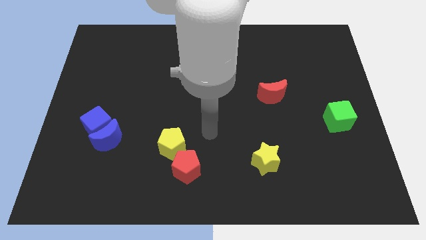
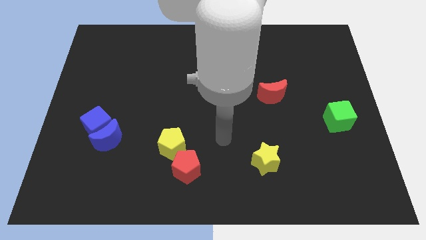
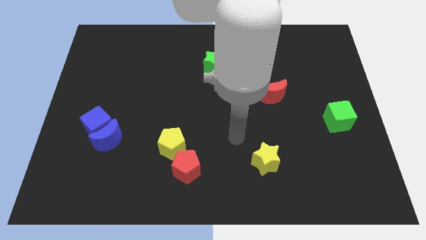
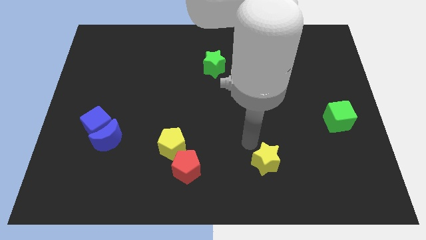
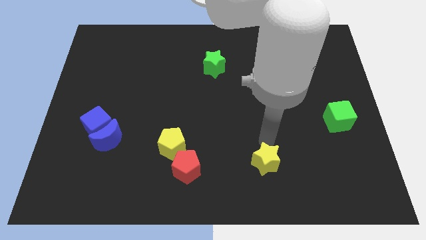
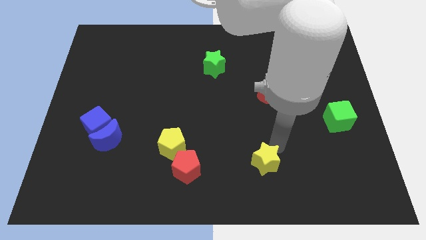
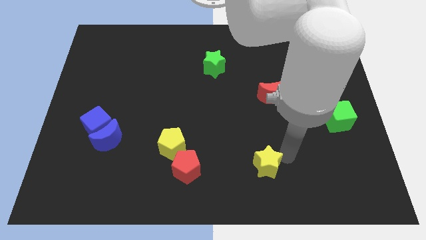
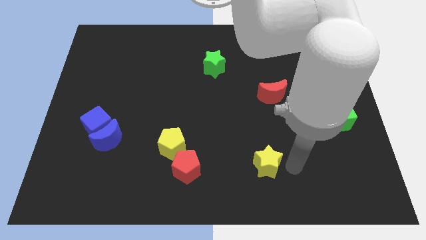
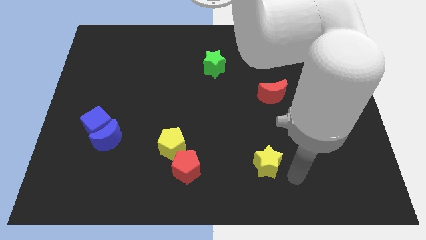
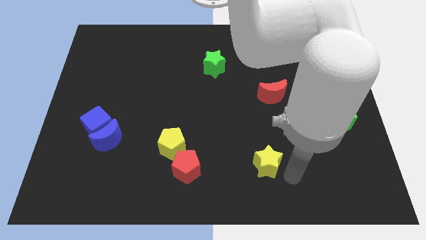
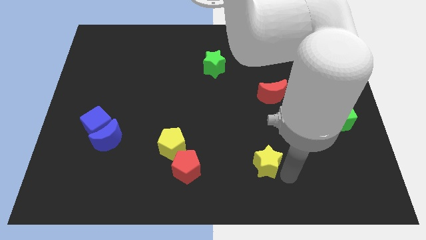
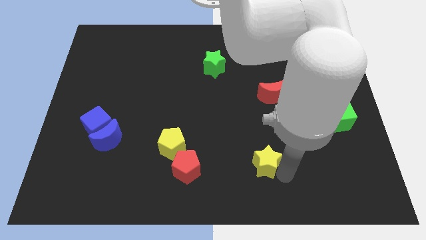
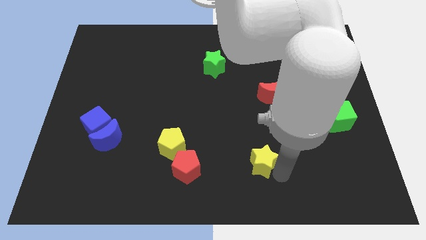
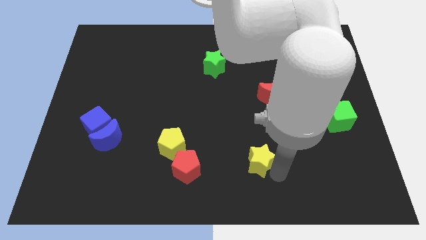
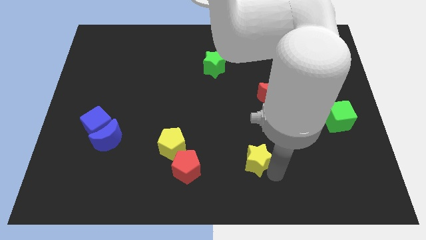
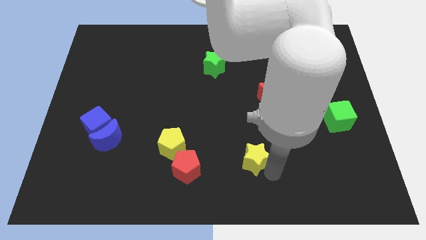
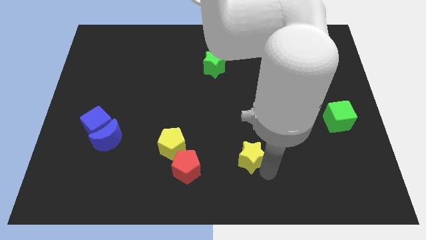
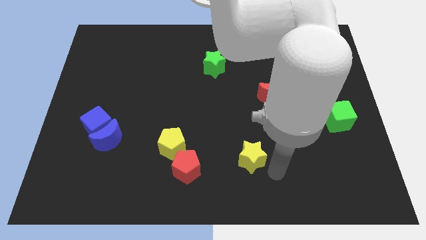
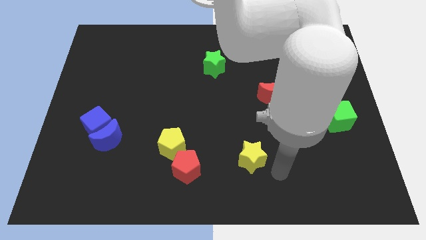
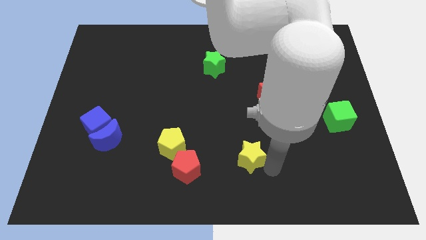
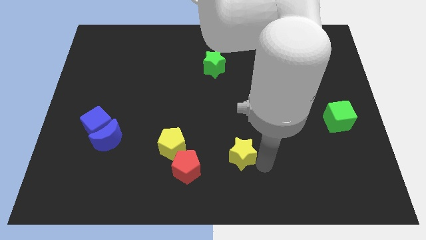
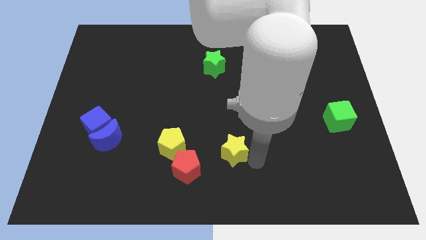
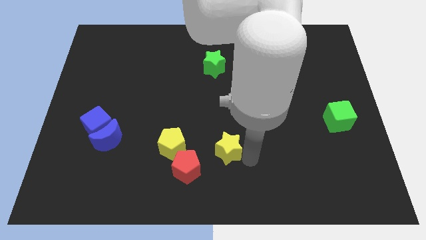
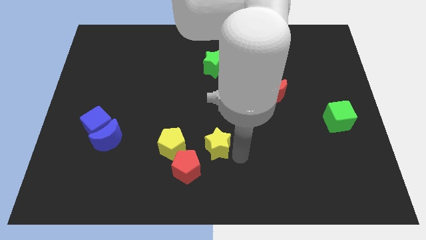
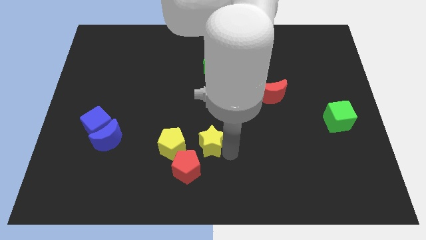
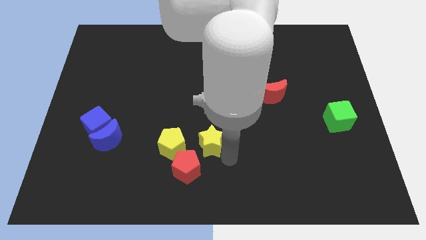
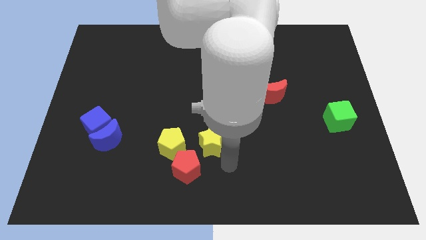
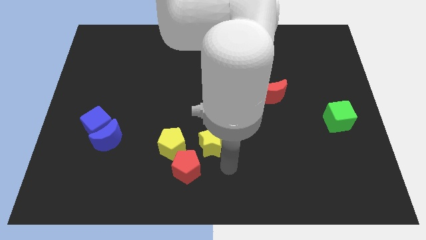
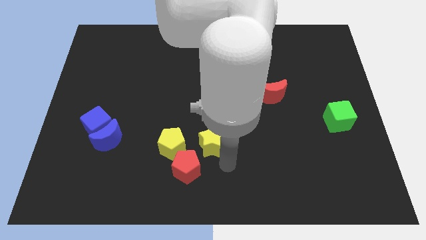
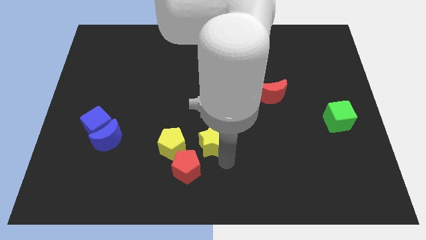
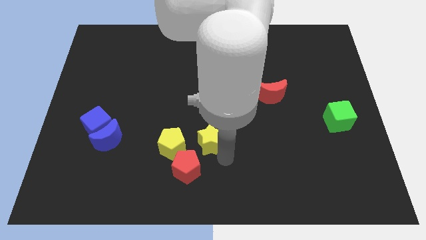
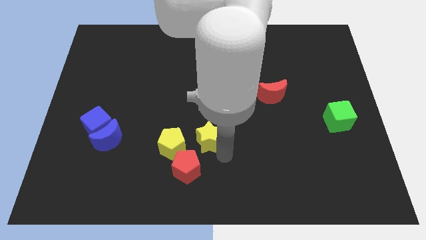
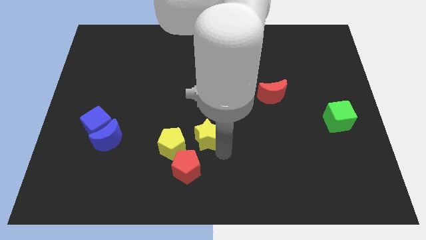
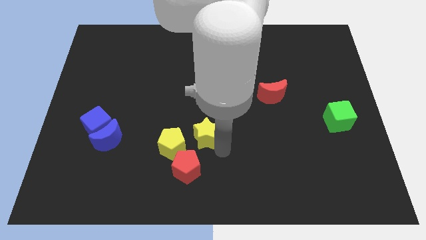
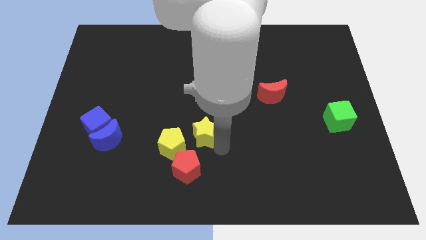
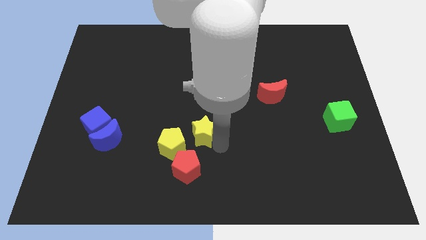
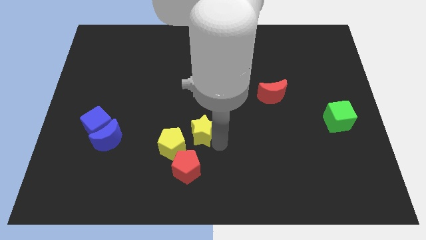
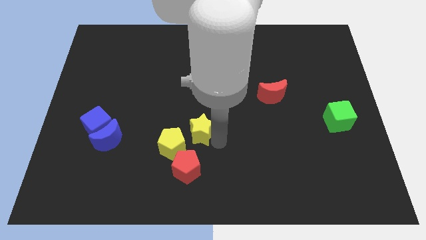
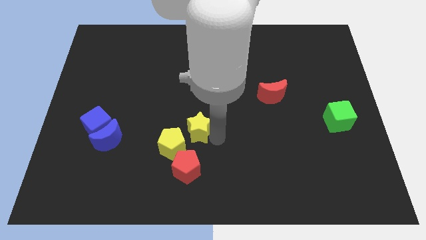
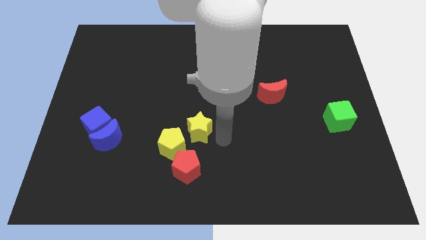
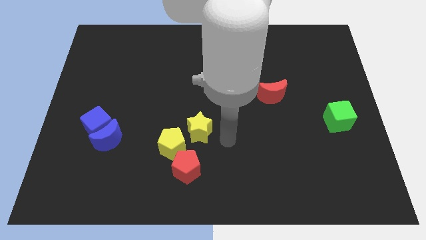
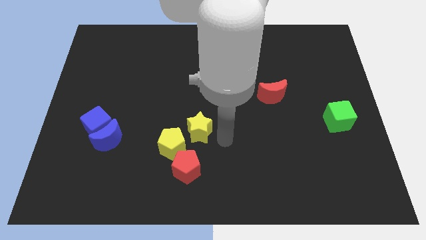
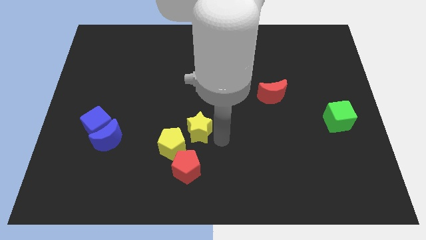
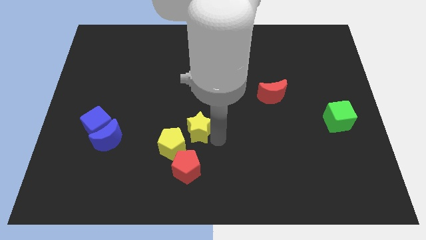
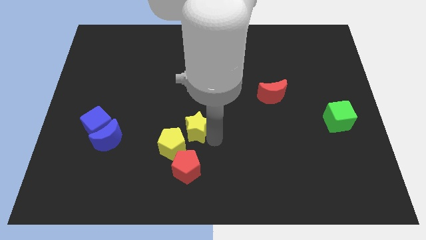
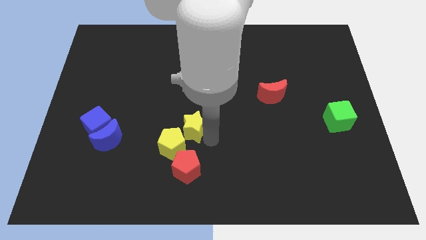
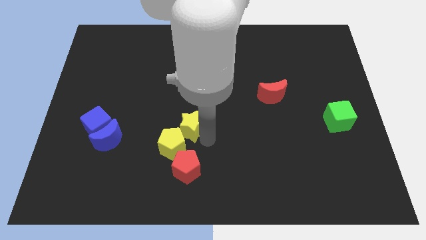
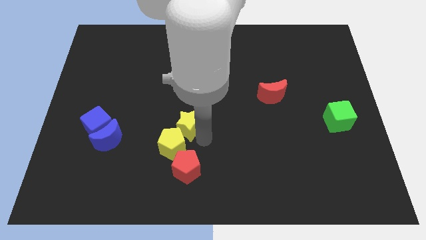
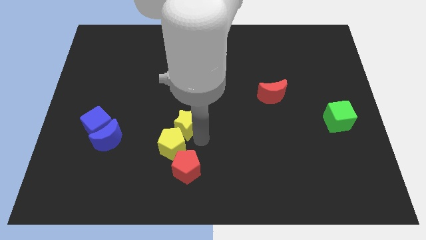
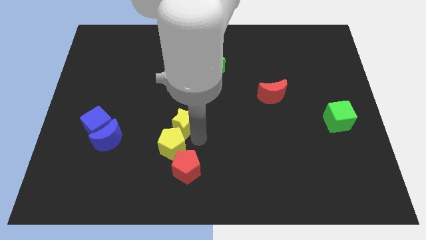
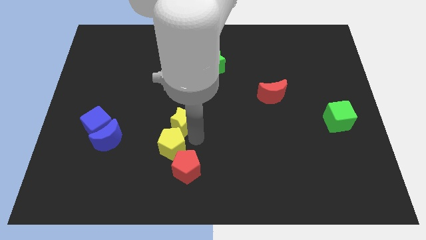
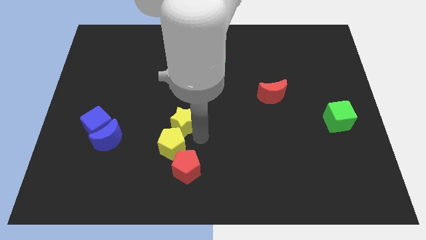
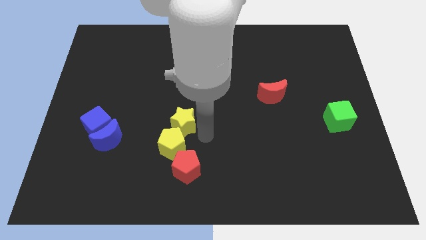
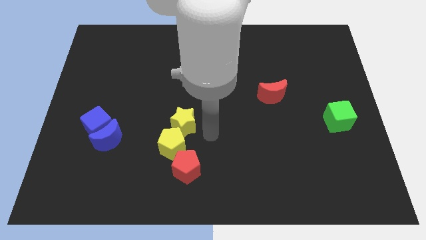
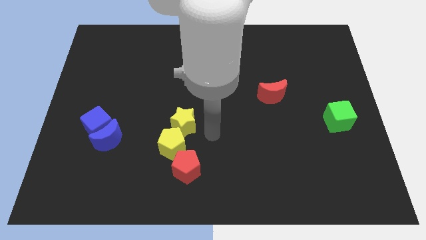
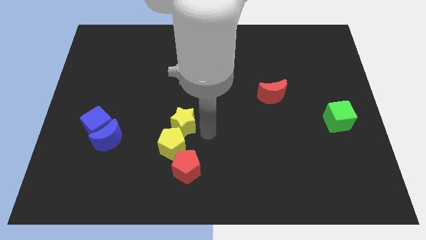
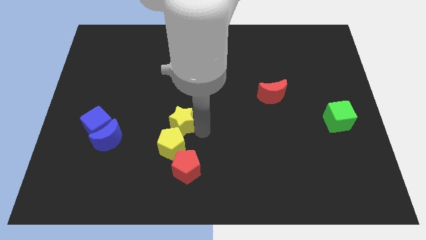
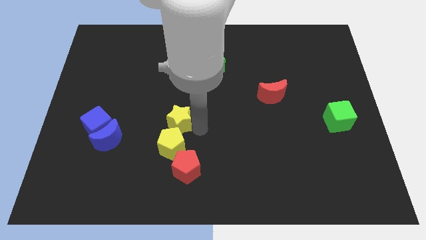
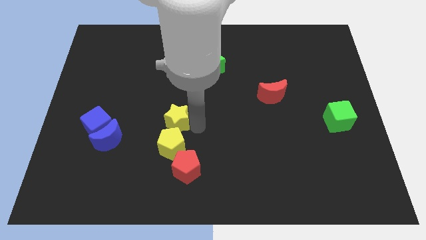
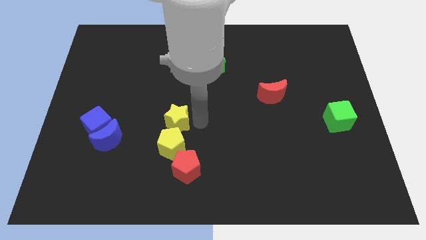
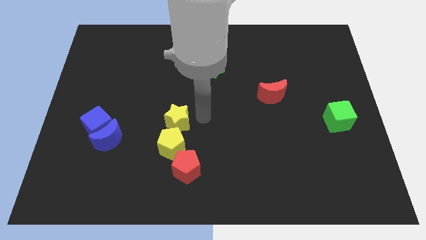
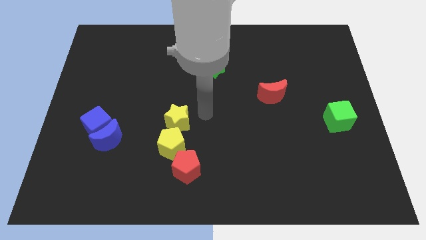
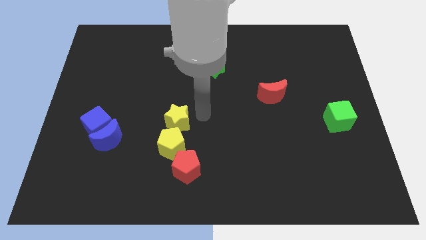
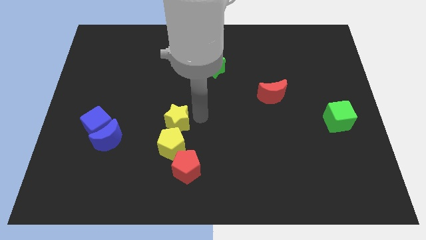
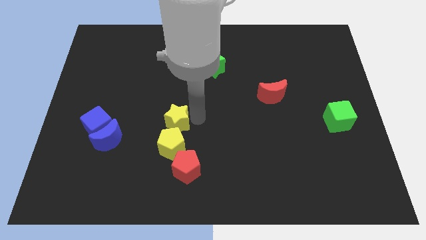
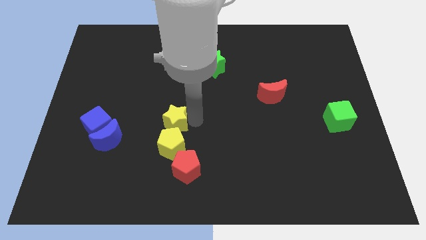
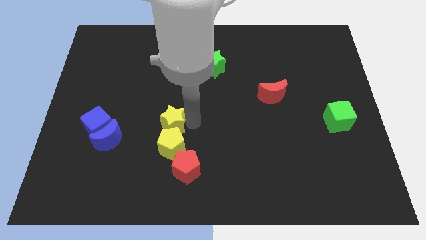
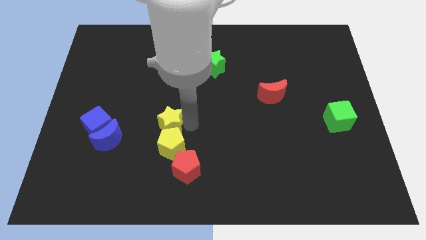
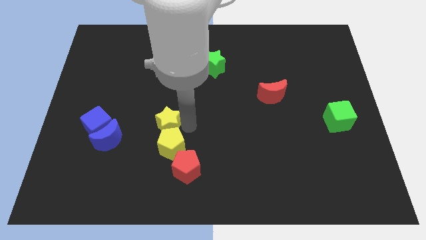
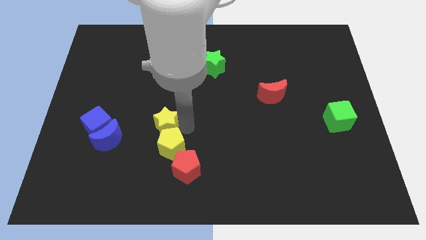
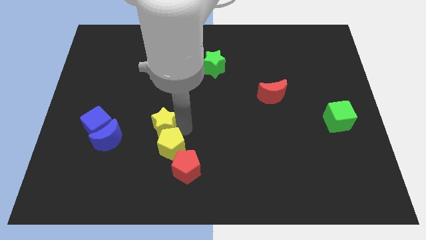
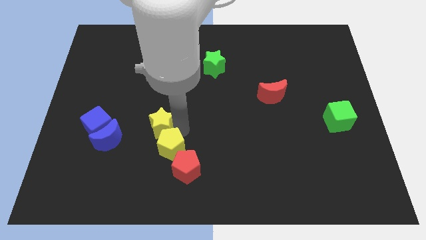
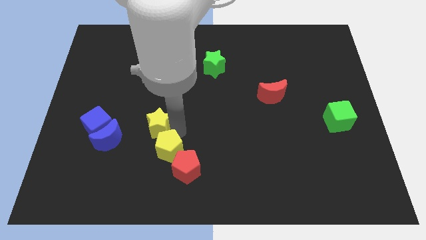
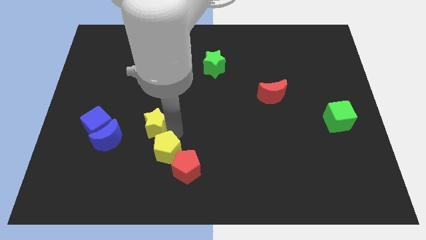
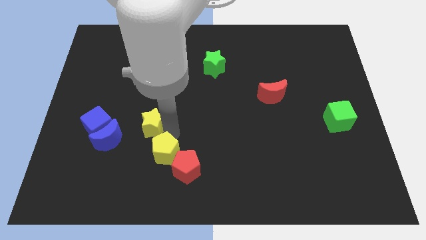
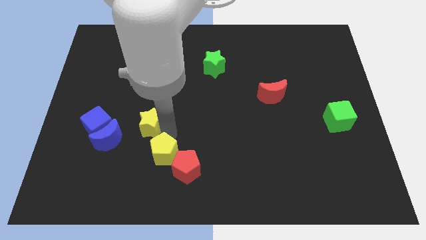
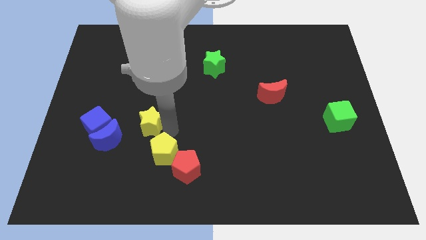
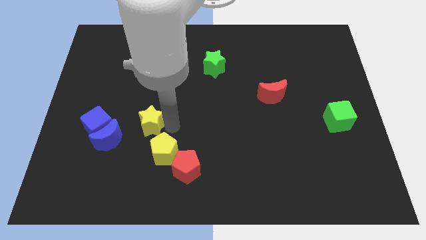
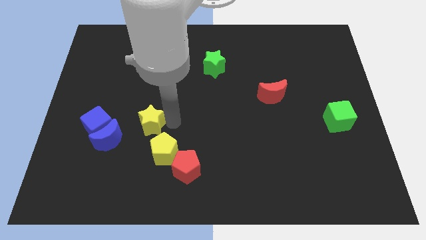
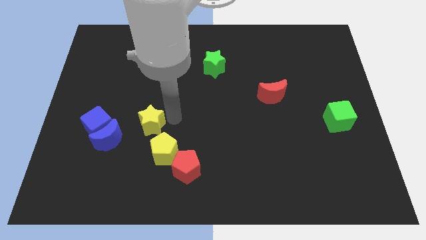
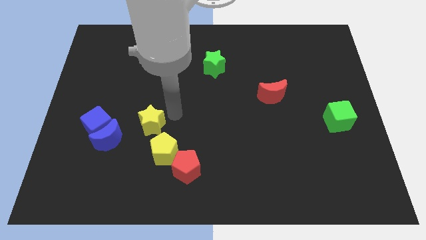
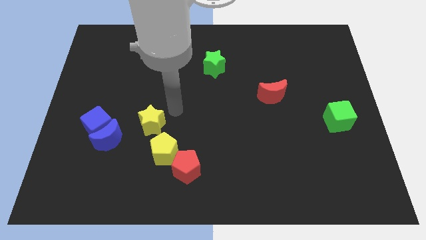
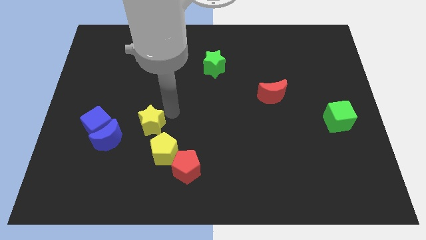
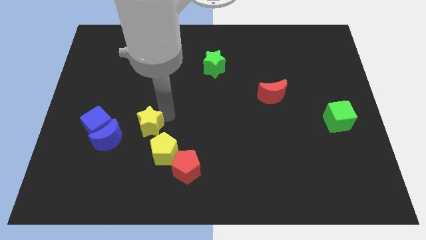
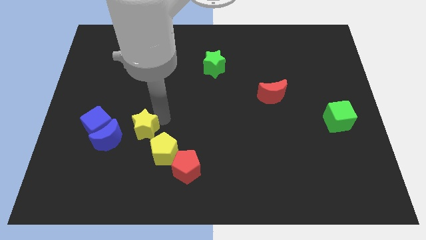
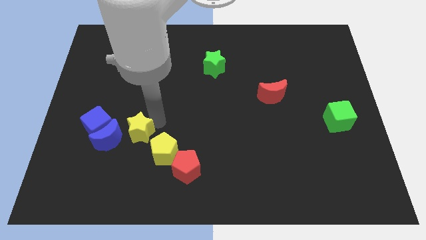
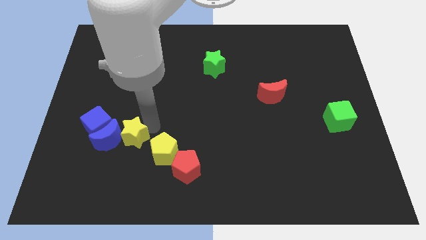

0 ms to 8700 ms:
move the yellow star to the blue moon
